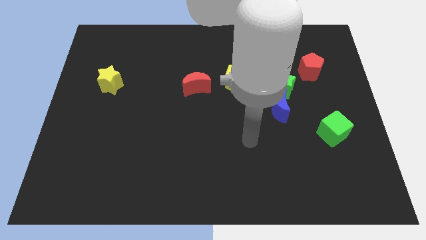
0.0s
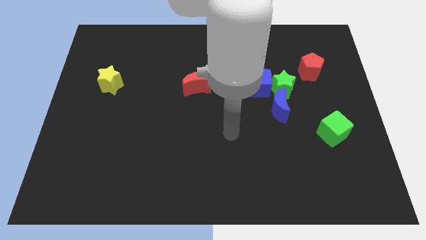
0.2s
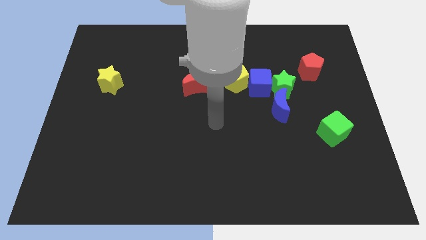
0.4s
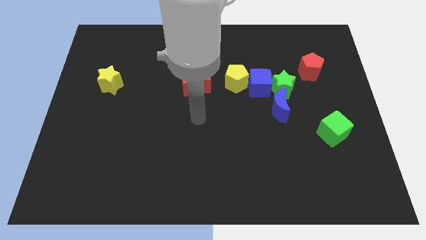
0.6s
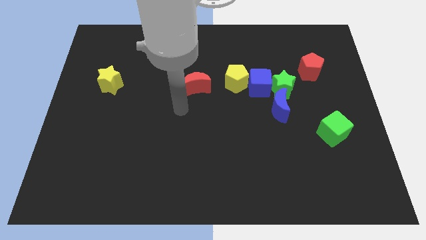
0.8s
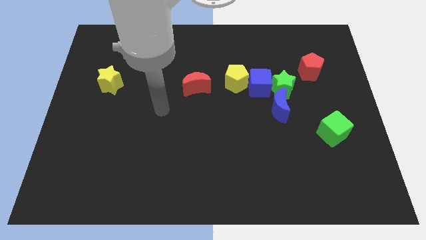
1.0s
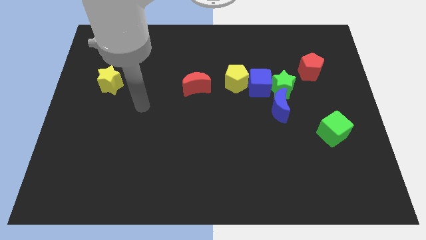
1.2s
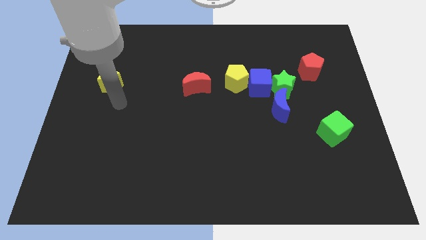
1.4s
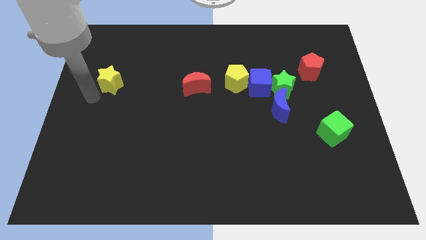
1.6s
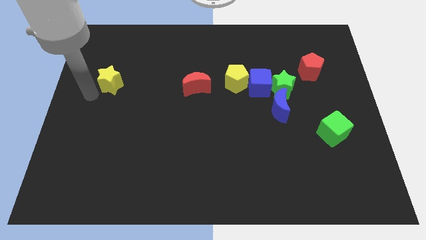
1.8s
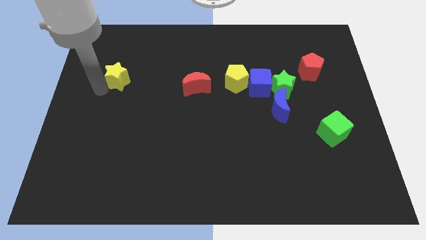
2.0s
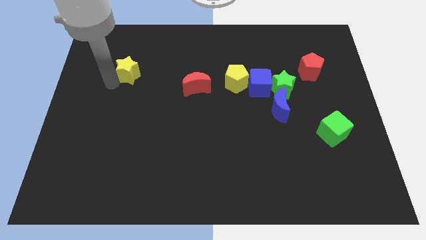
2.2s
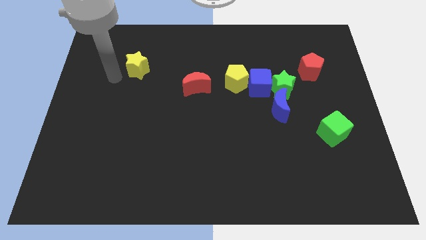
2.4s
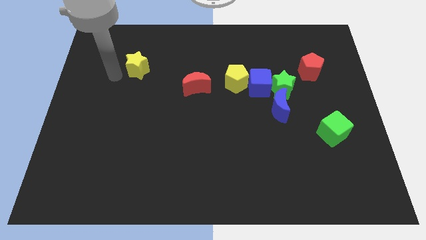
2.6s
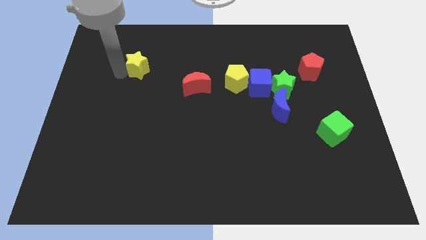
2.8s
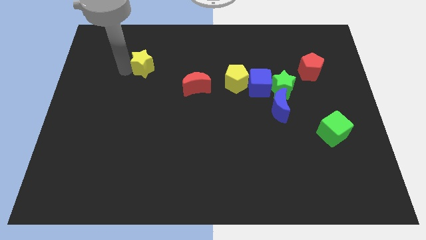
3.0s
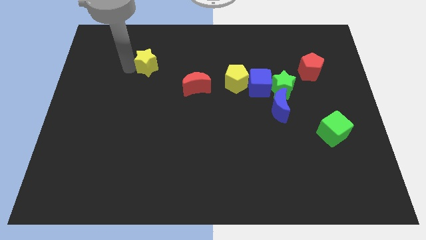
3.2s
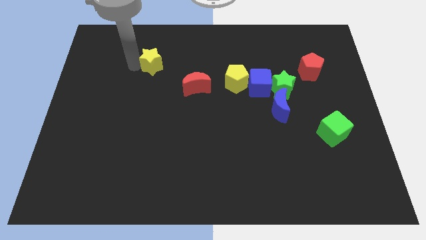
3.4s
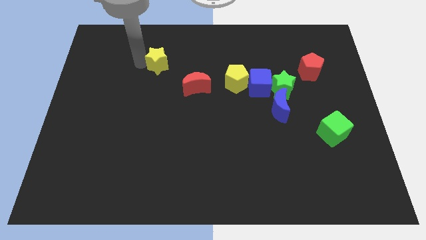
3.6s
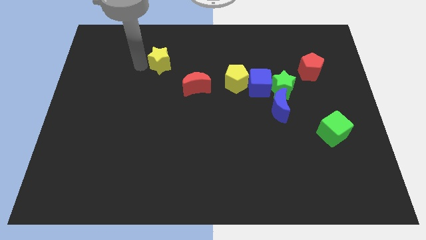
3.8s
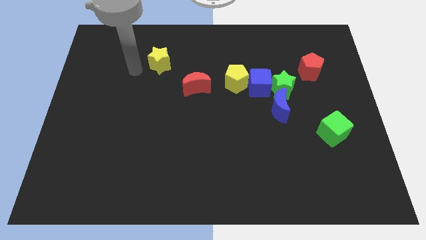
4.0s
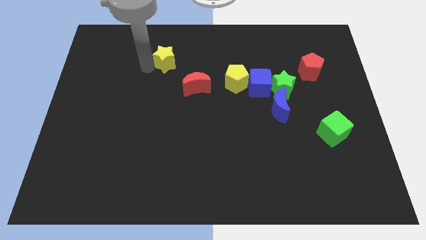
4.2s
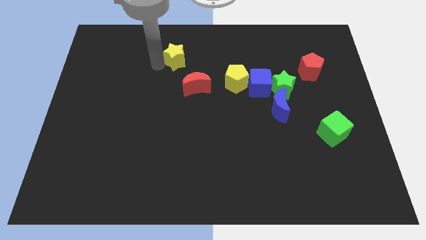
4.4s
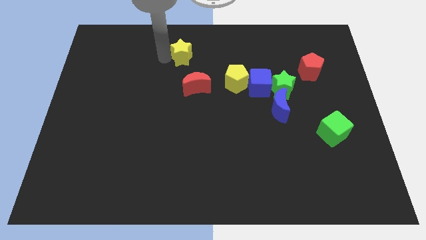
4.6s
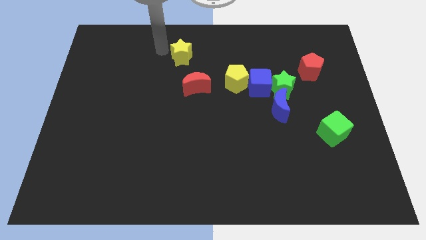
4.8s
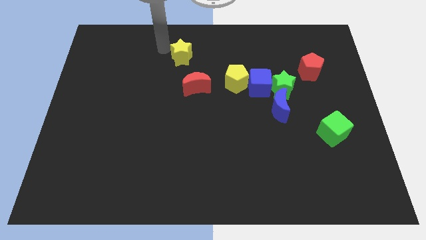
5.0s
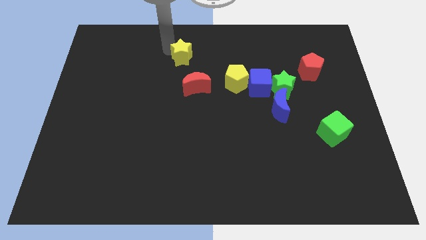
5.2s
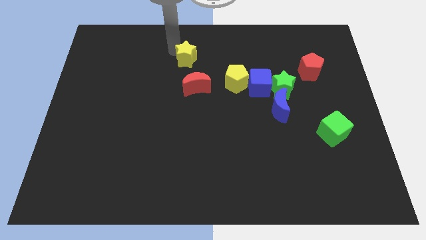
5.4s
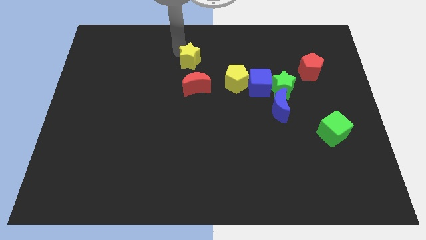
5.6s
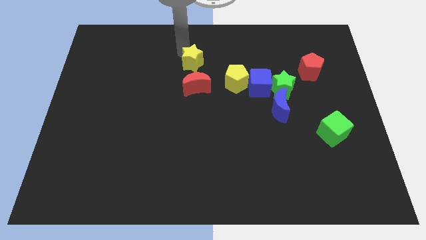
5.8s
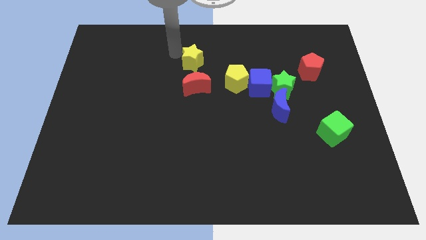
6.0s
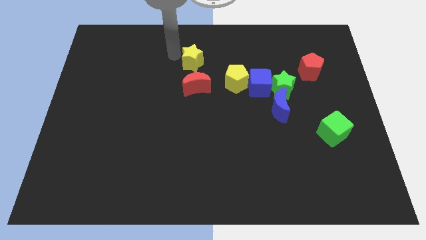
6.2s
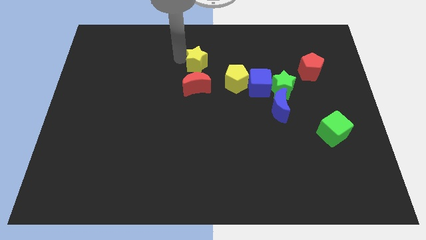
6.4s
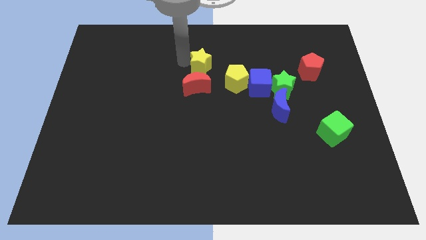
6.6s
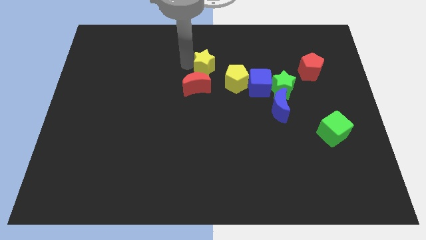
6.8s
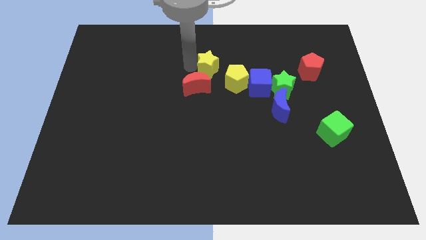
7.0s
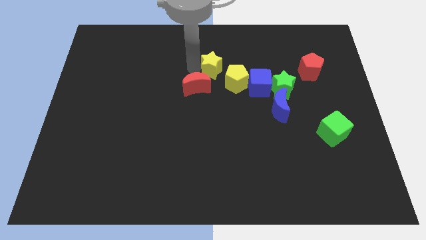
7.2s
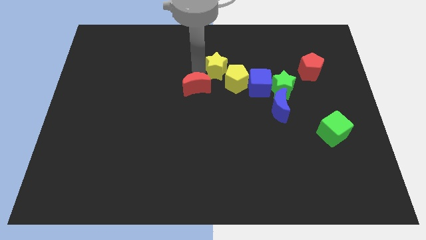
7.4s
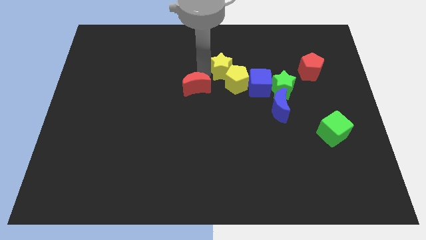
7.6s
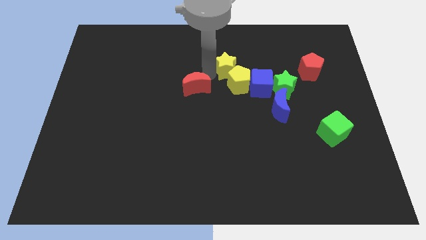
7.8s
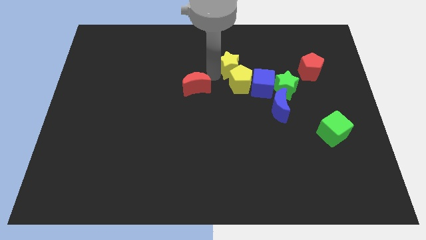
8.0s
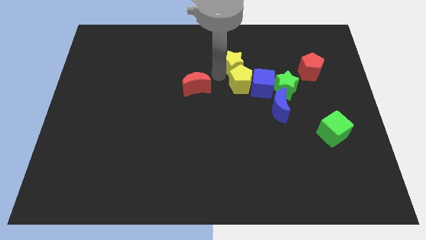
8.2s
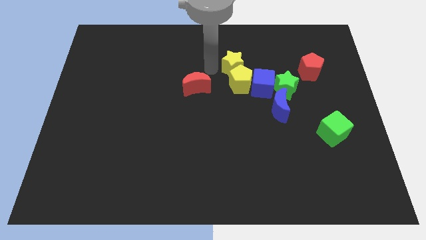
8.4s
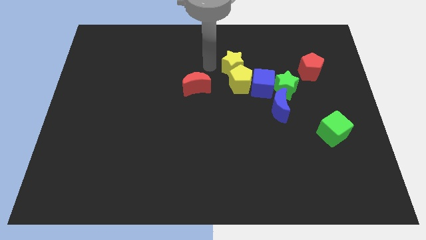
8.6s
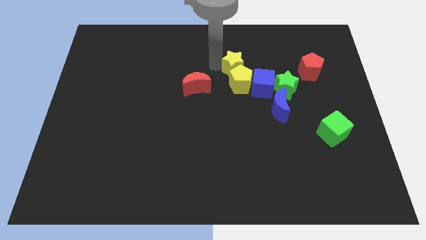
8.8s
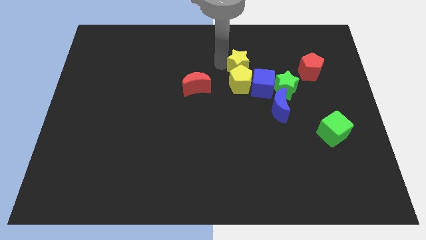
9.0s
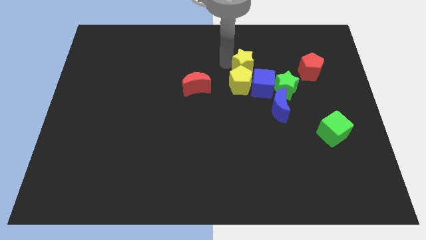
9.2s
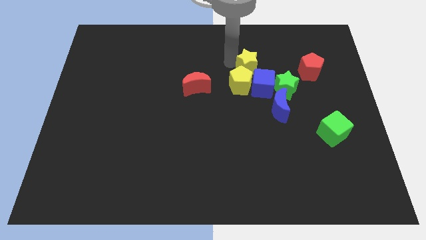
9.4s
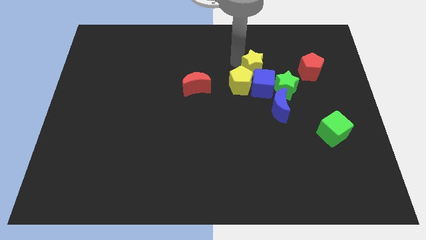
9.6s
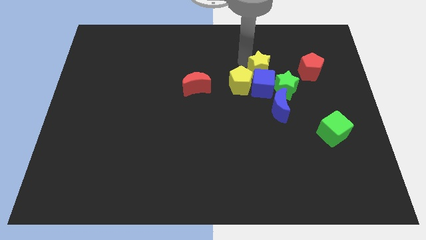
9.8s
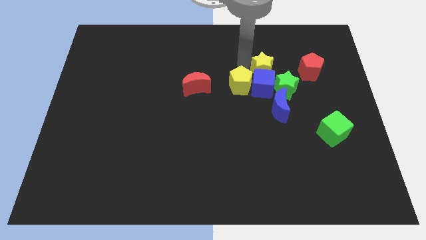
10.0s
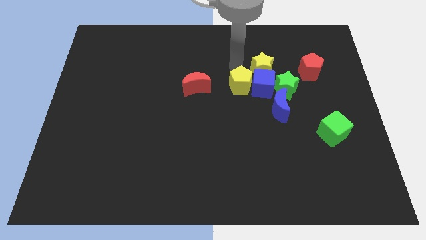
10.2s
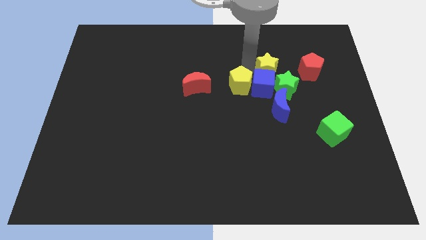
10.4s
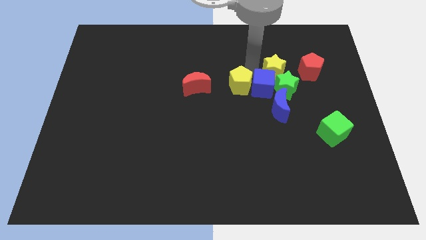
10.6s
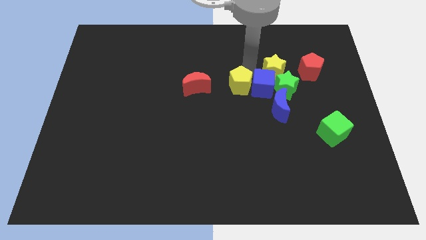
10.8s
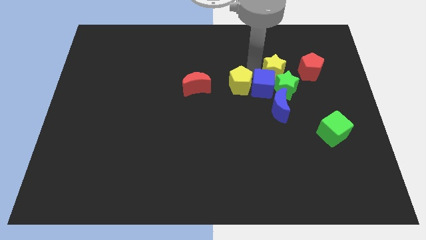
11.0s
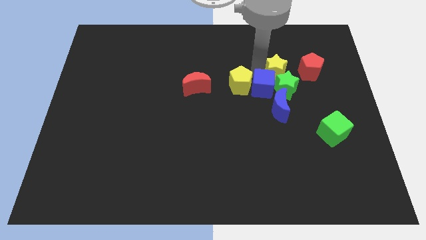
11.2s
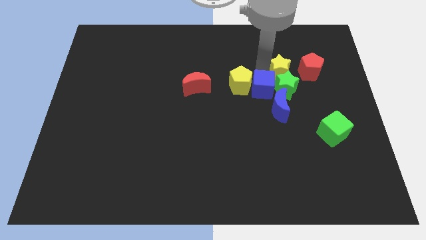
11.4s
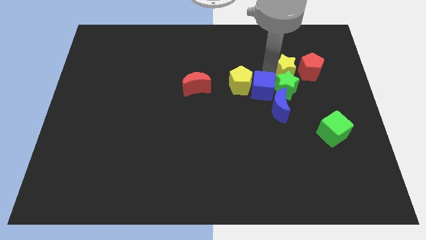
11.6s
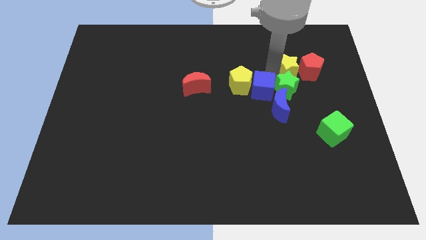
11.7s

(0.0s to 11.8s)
move the yellow star to the red pentagon

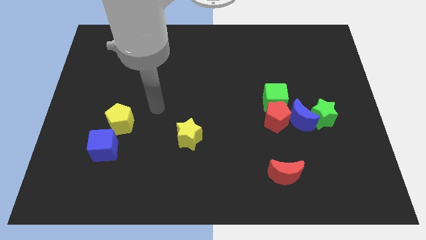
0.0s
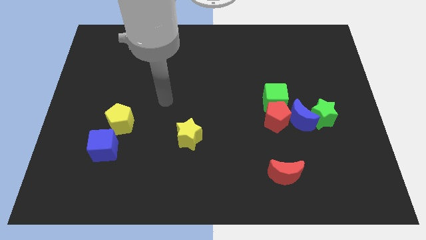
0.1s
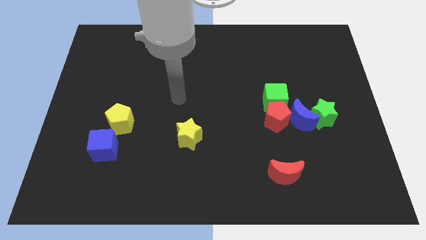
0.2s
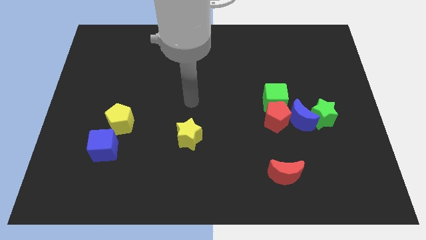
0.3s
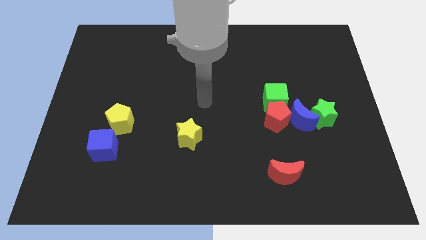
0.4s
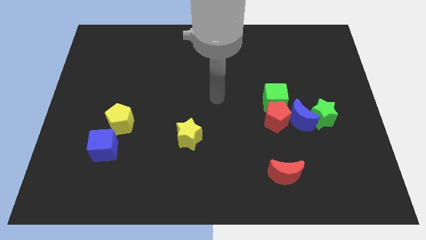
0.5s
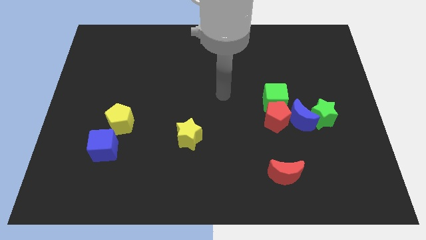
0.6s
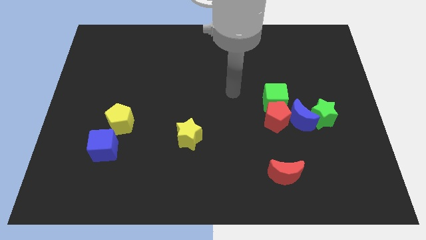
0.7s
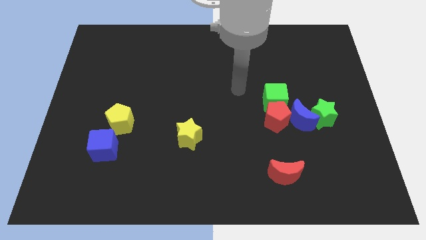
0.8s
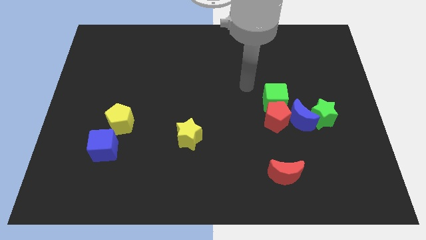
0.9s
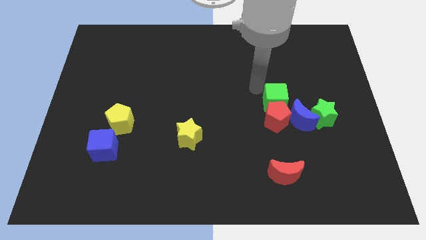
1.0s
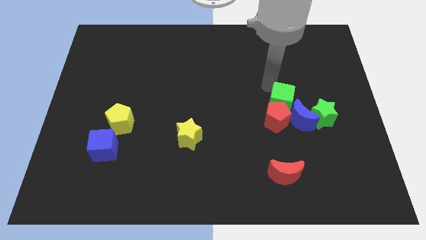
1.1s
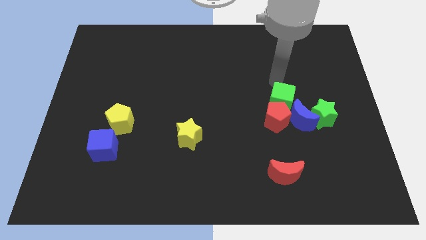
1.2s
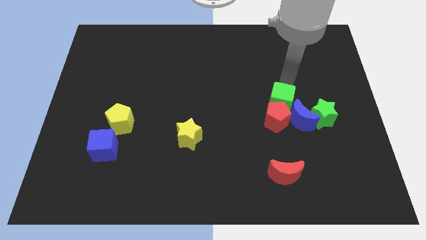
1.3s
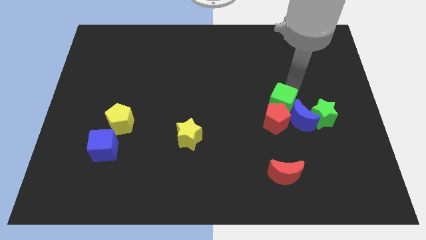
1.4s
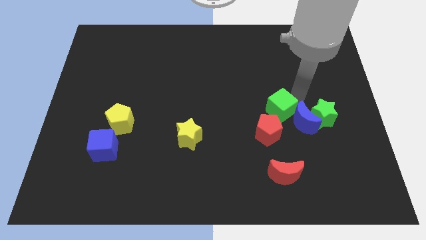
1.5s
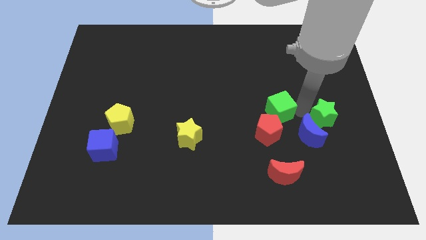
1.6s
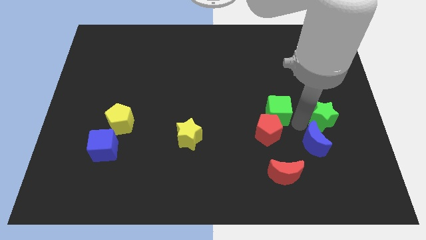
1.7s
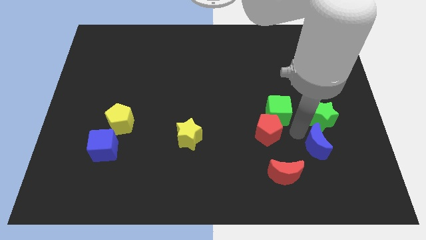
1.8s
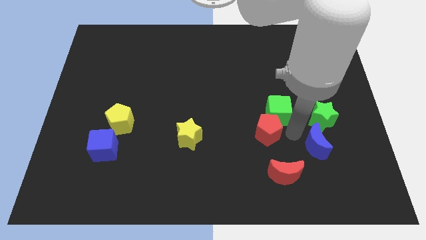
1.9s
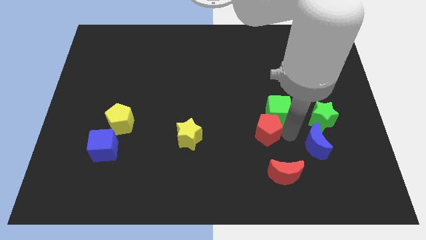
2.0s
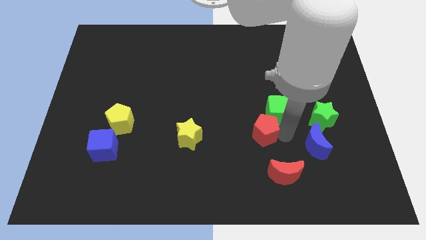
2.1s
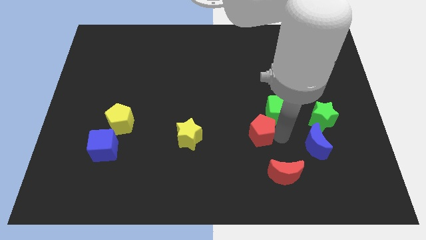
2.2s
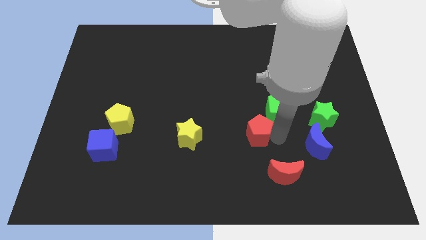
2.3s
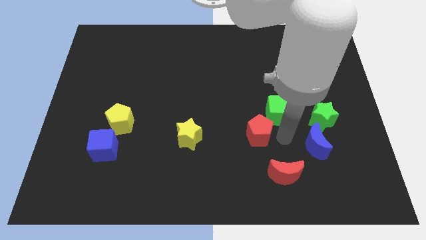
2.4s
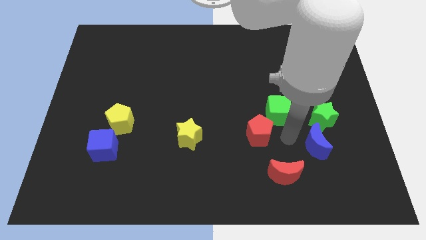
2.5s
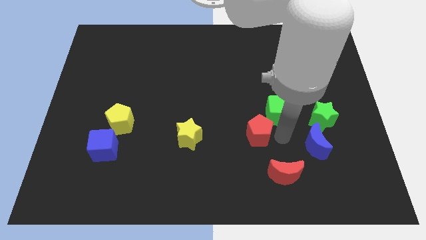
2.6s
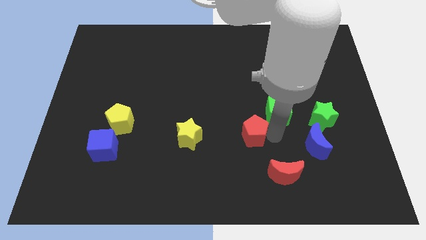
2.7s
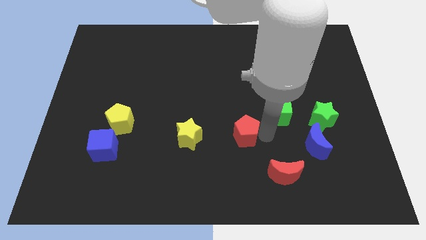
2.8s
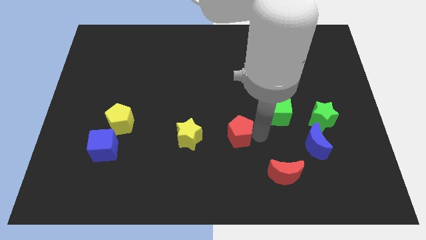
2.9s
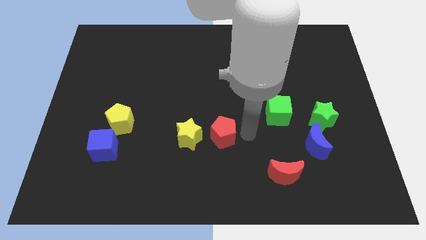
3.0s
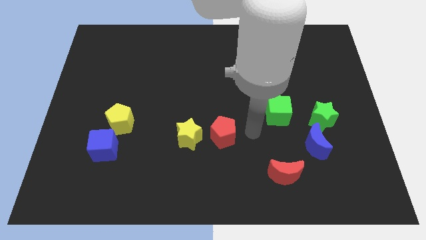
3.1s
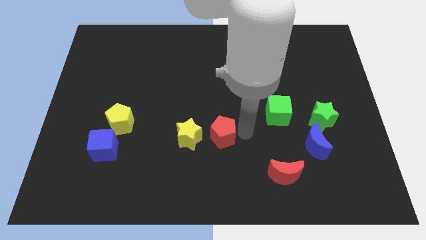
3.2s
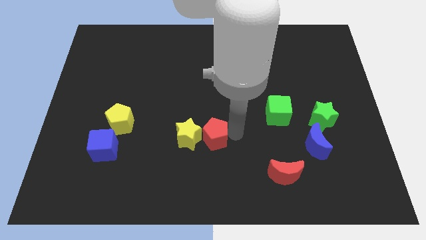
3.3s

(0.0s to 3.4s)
push the red pentagon close to the yellow star
